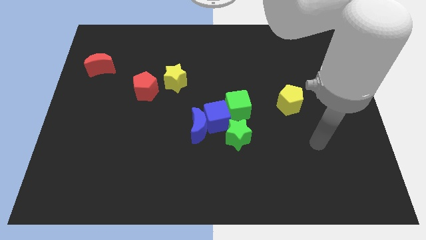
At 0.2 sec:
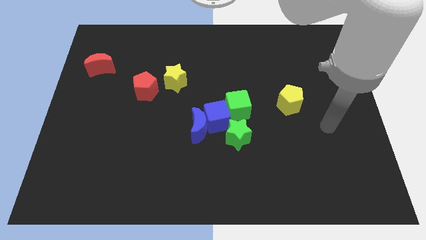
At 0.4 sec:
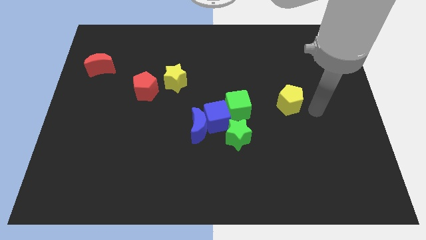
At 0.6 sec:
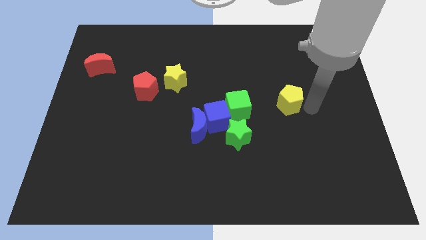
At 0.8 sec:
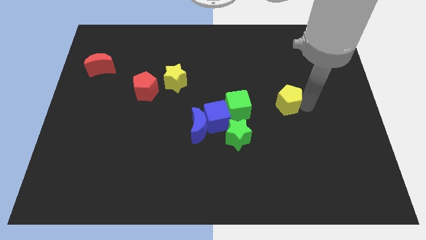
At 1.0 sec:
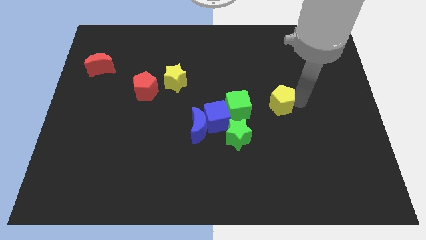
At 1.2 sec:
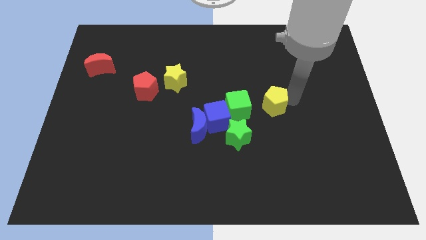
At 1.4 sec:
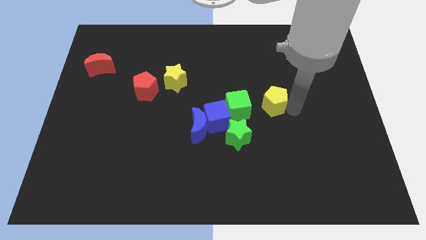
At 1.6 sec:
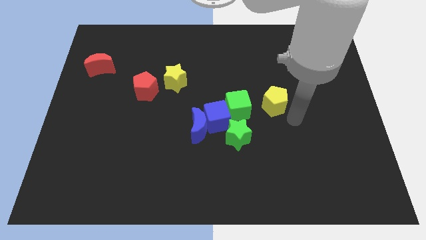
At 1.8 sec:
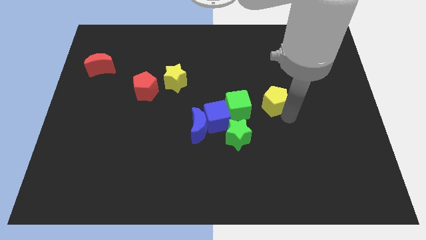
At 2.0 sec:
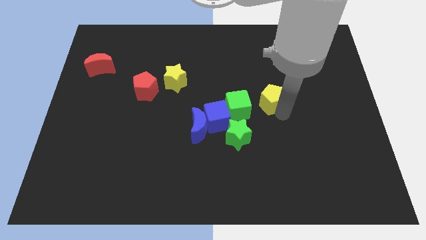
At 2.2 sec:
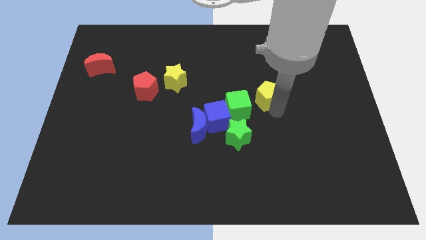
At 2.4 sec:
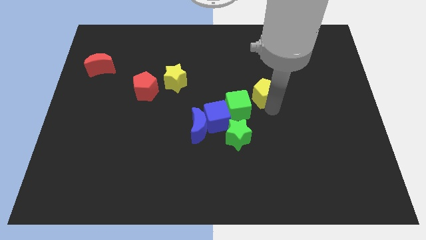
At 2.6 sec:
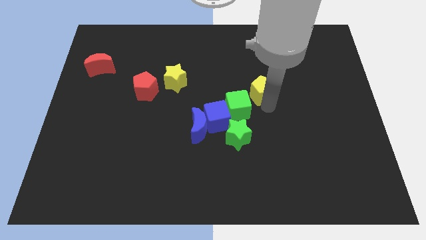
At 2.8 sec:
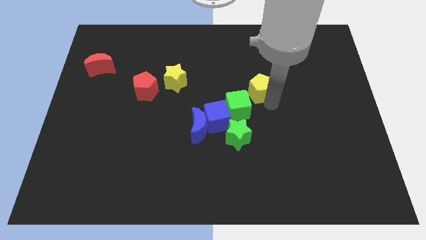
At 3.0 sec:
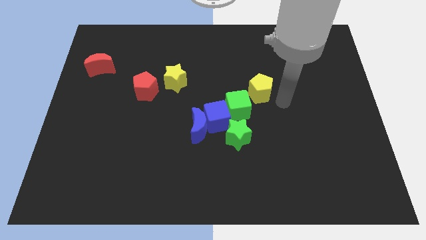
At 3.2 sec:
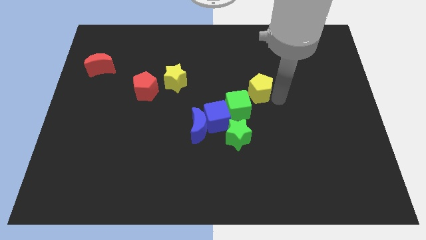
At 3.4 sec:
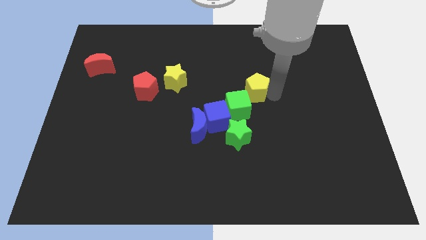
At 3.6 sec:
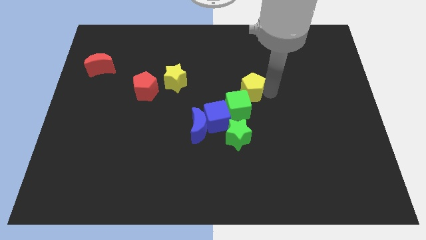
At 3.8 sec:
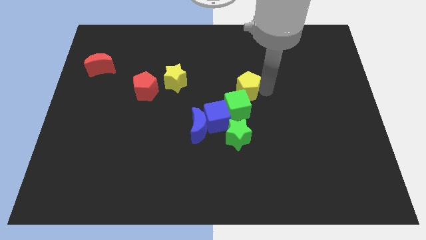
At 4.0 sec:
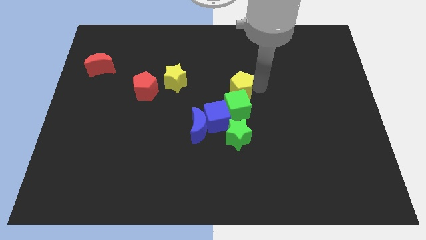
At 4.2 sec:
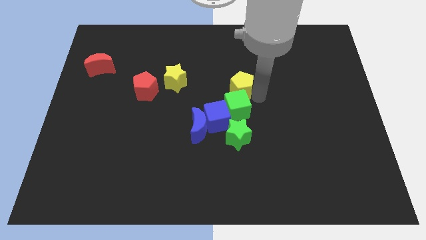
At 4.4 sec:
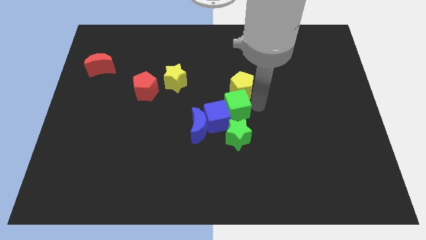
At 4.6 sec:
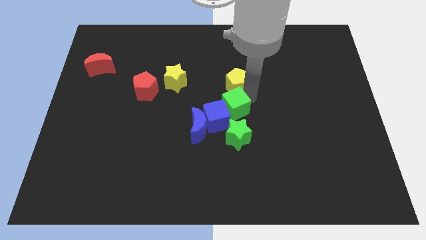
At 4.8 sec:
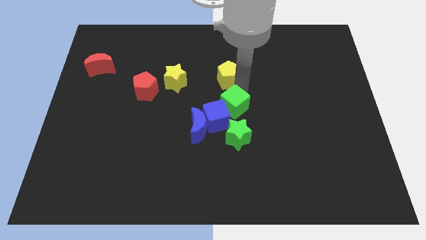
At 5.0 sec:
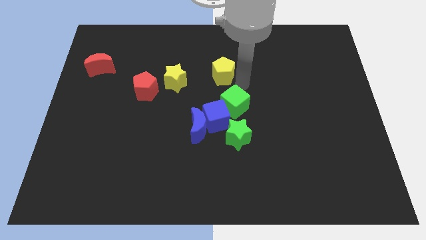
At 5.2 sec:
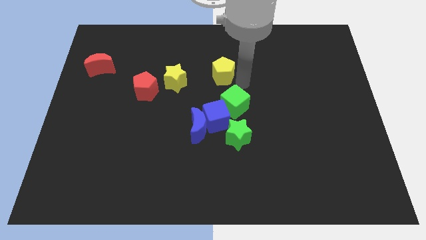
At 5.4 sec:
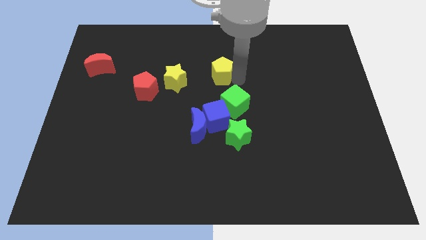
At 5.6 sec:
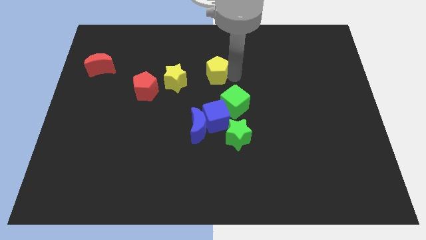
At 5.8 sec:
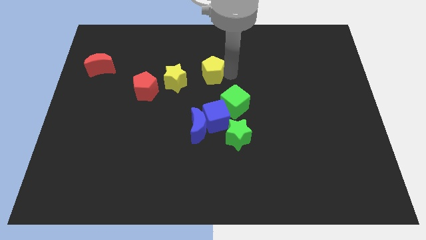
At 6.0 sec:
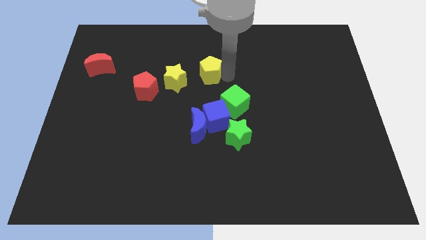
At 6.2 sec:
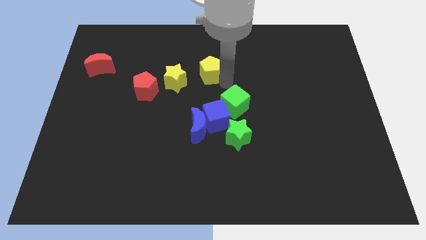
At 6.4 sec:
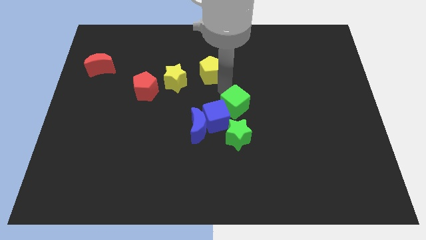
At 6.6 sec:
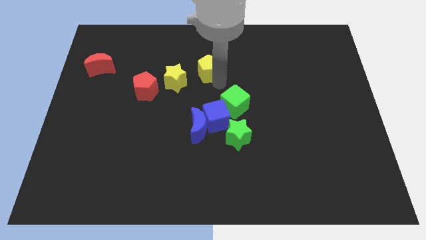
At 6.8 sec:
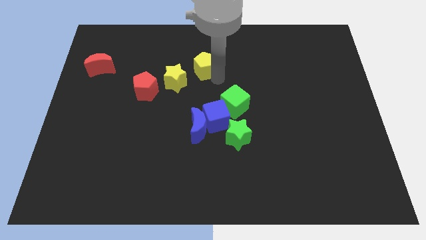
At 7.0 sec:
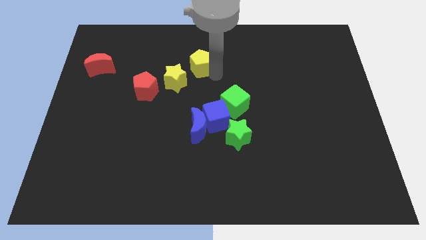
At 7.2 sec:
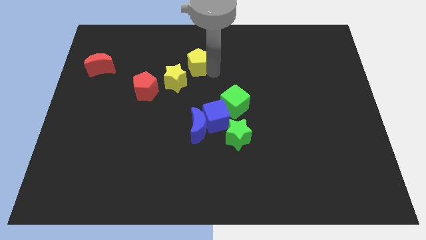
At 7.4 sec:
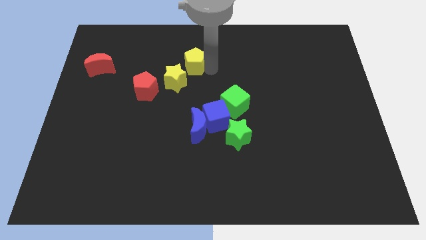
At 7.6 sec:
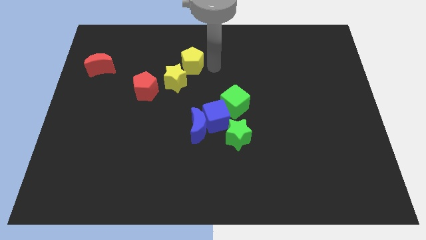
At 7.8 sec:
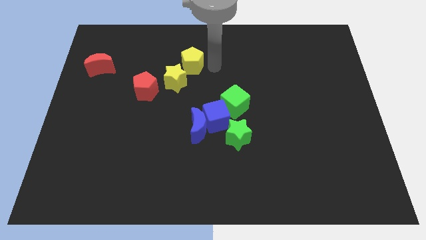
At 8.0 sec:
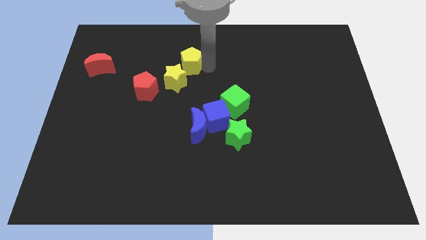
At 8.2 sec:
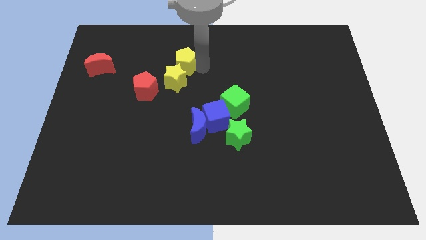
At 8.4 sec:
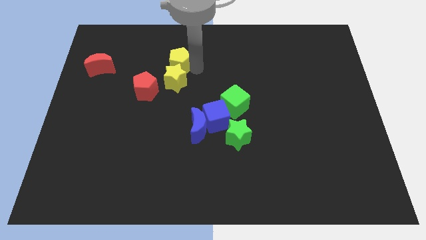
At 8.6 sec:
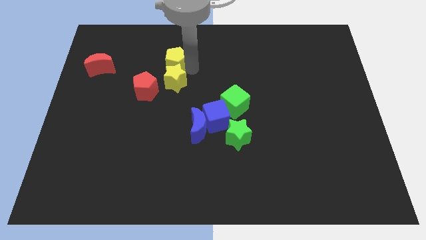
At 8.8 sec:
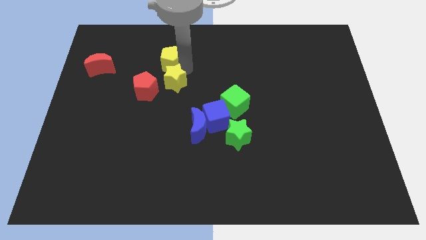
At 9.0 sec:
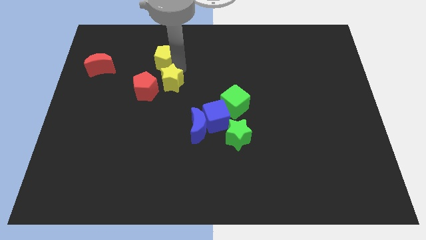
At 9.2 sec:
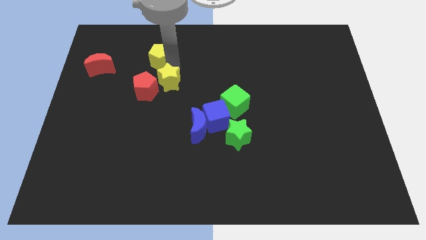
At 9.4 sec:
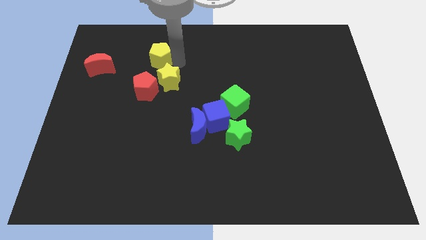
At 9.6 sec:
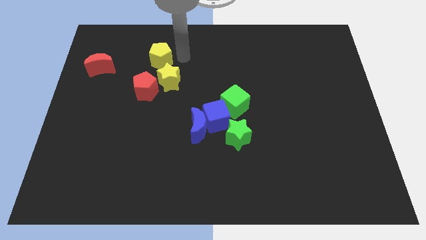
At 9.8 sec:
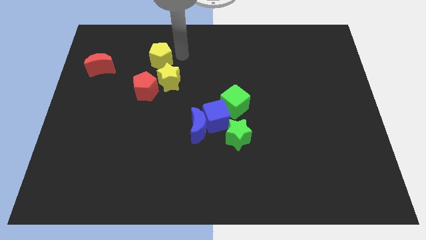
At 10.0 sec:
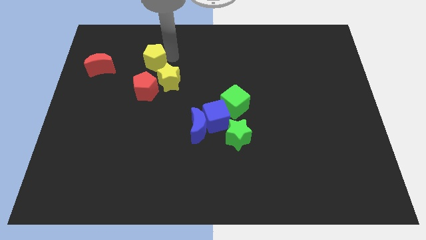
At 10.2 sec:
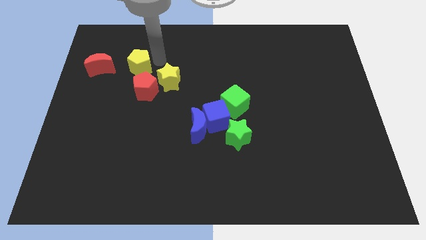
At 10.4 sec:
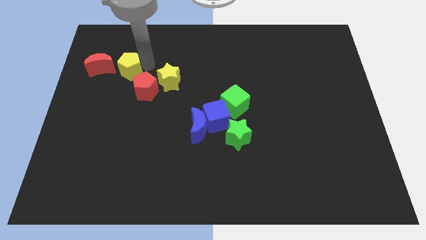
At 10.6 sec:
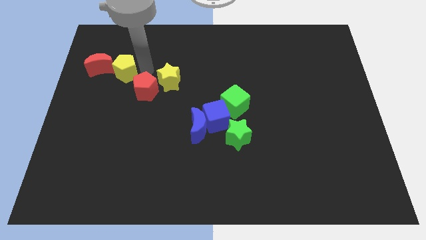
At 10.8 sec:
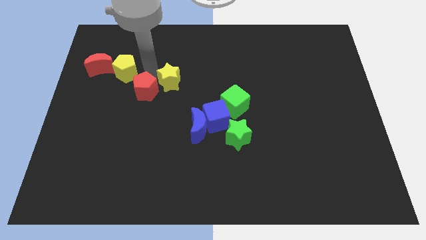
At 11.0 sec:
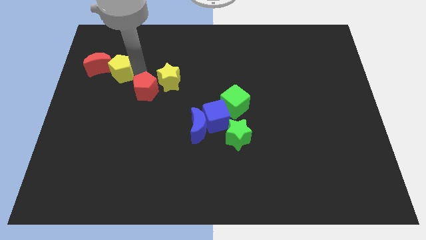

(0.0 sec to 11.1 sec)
push the yellow pentagon towards the red moon

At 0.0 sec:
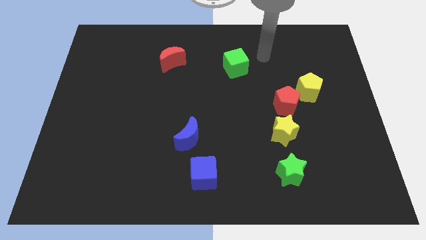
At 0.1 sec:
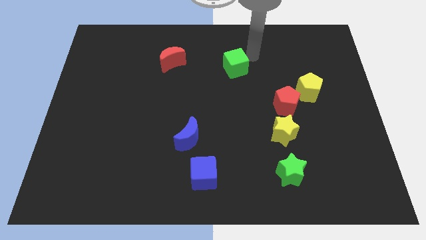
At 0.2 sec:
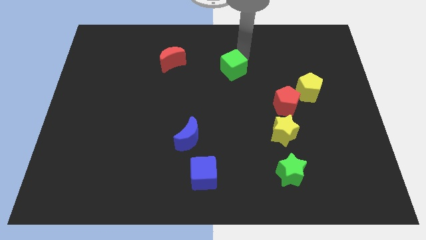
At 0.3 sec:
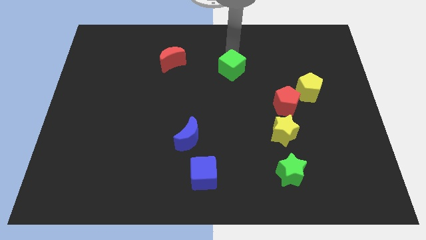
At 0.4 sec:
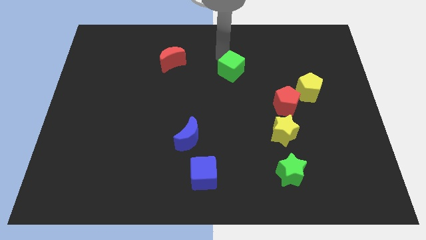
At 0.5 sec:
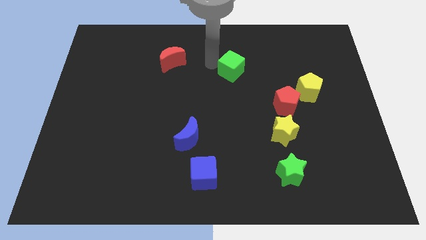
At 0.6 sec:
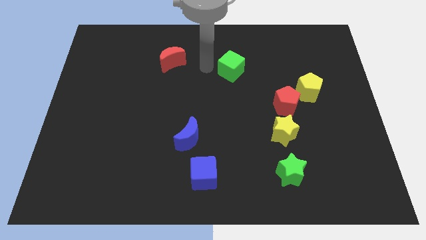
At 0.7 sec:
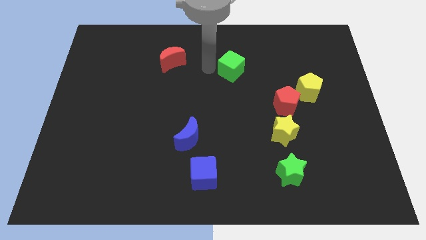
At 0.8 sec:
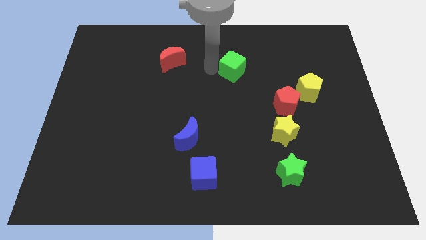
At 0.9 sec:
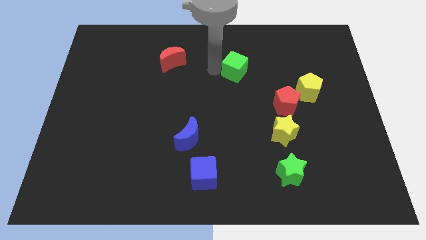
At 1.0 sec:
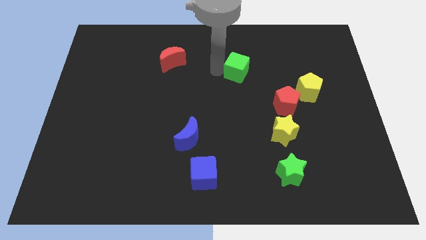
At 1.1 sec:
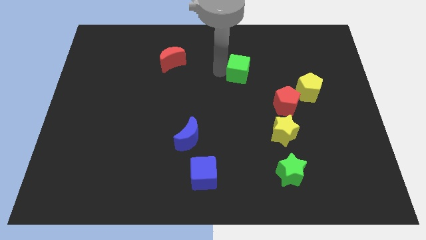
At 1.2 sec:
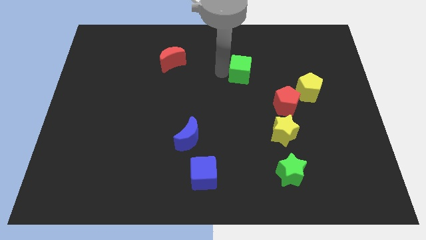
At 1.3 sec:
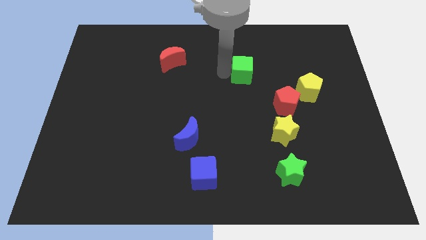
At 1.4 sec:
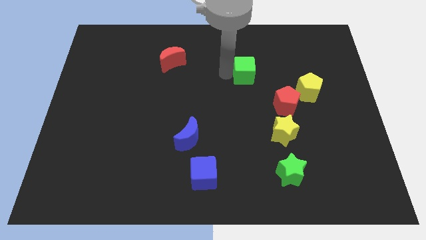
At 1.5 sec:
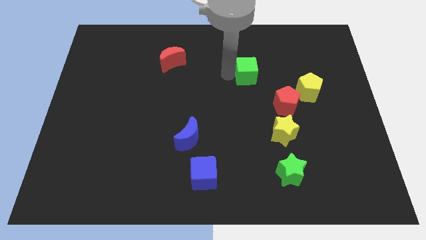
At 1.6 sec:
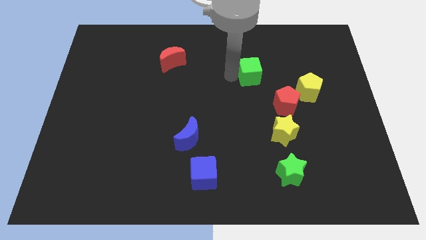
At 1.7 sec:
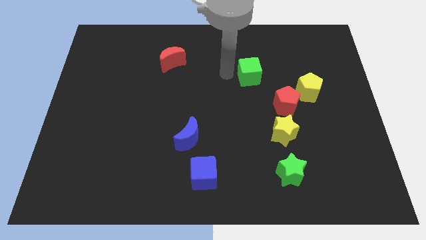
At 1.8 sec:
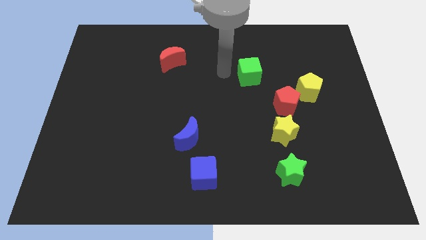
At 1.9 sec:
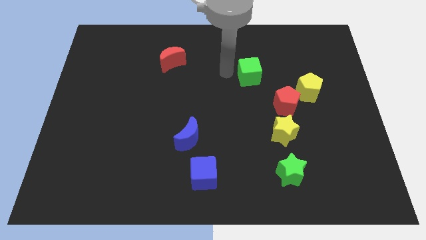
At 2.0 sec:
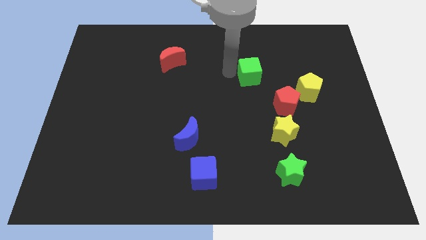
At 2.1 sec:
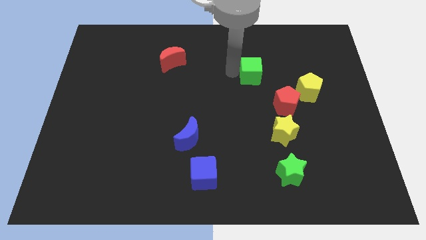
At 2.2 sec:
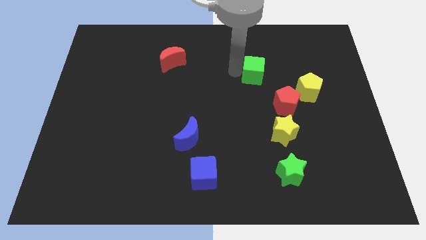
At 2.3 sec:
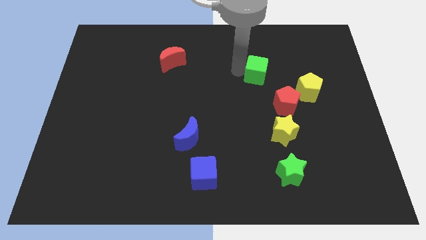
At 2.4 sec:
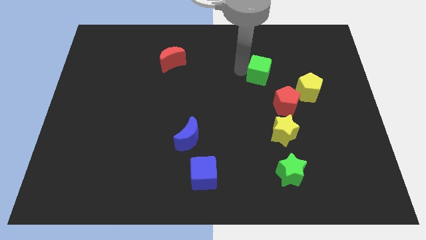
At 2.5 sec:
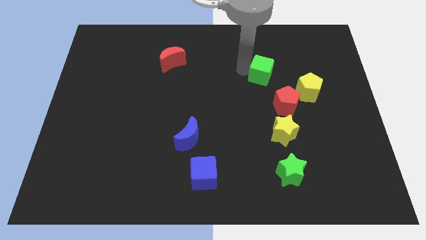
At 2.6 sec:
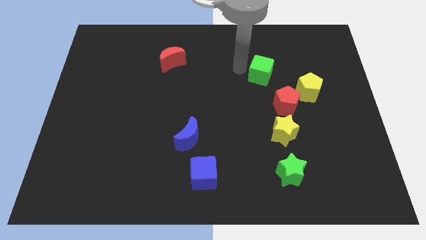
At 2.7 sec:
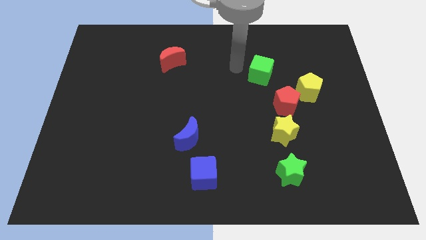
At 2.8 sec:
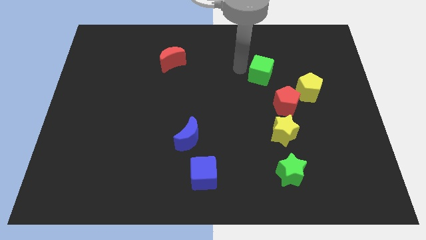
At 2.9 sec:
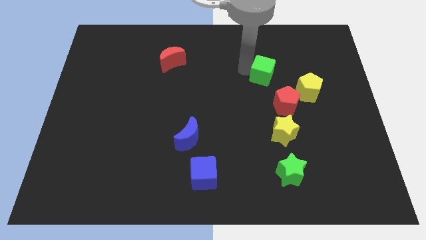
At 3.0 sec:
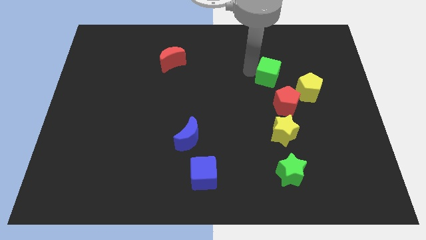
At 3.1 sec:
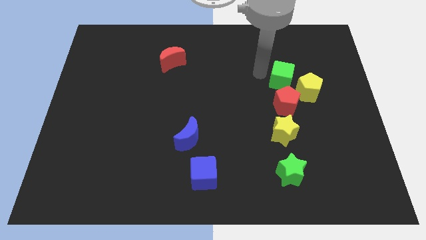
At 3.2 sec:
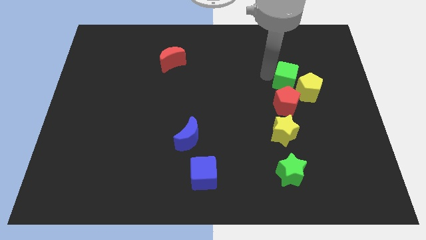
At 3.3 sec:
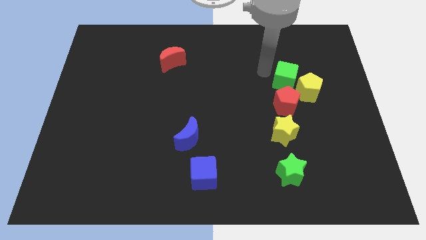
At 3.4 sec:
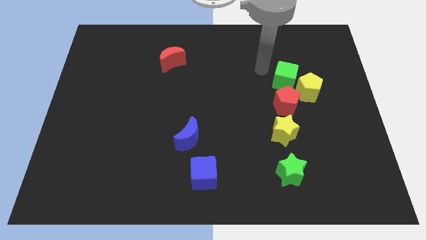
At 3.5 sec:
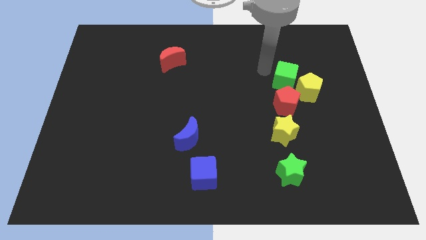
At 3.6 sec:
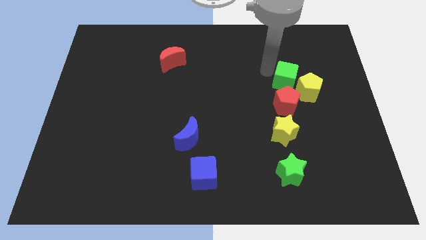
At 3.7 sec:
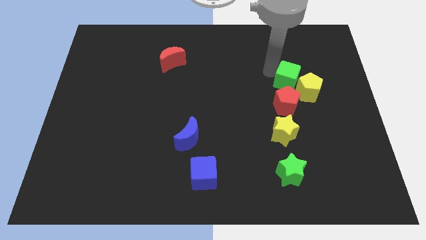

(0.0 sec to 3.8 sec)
move the green cube close to the yellow pentagon
